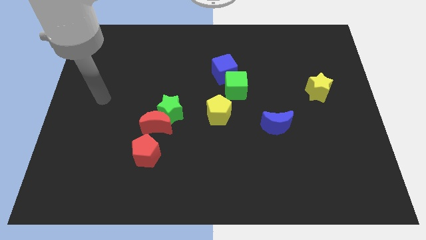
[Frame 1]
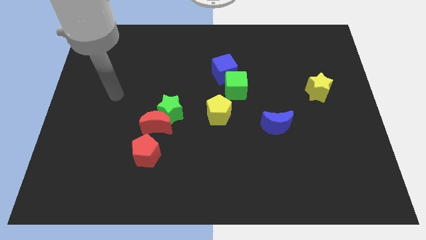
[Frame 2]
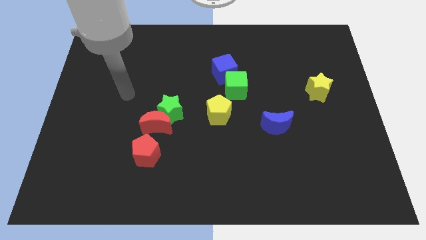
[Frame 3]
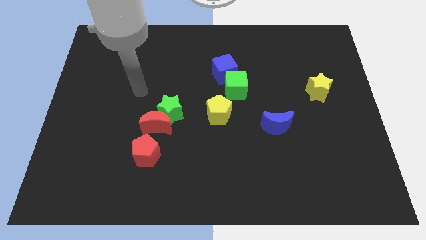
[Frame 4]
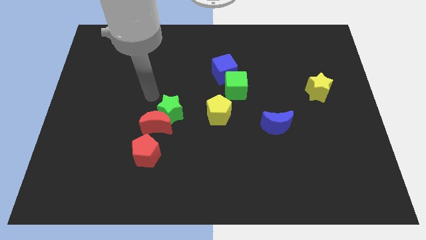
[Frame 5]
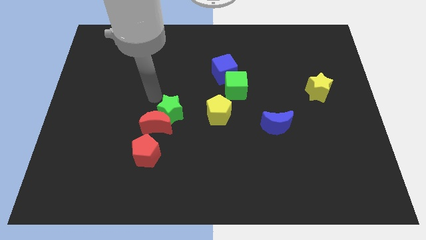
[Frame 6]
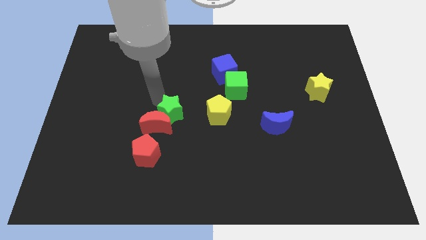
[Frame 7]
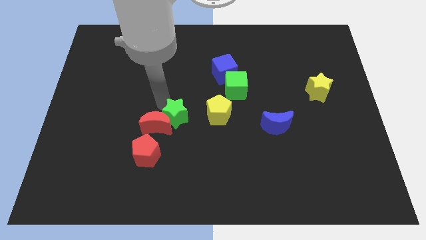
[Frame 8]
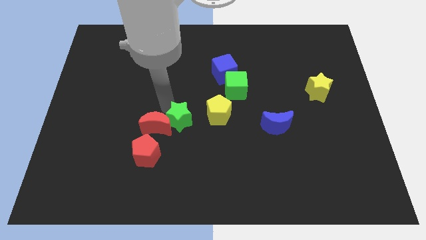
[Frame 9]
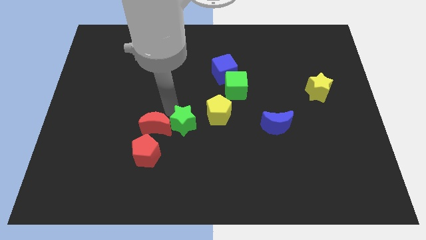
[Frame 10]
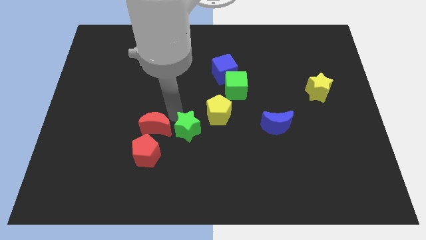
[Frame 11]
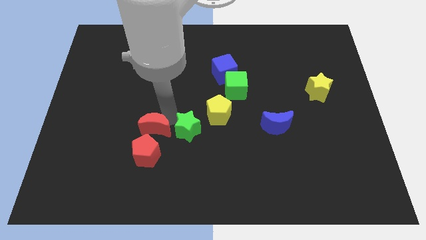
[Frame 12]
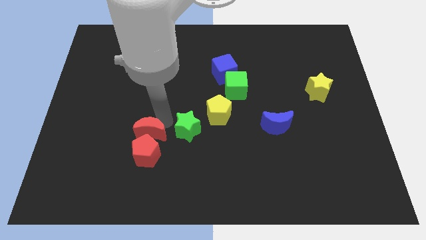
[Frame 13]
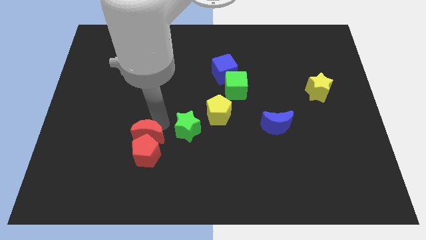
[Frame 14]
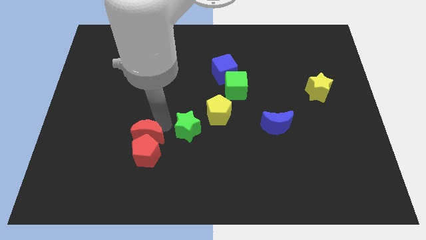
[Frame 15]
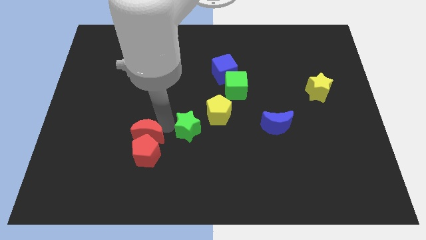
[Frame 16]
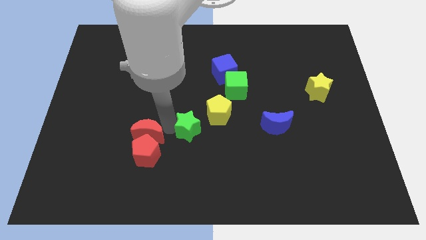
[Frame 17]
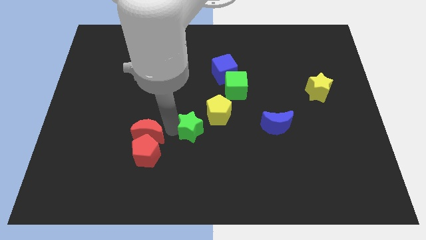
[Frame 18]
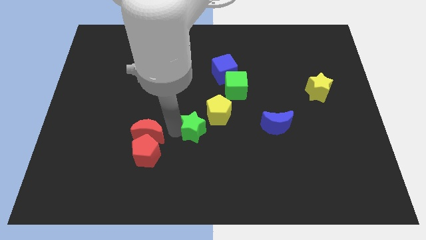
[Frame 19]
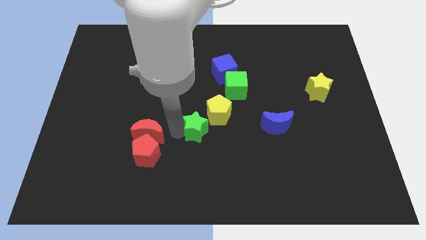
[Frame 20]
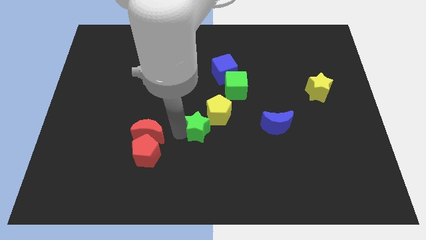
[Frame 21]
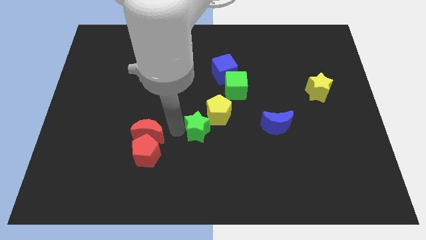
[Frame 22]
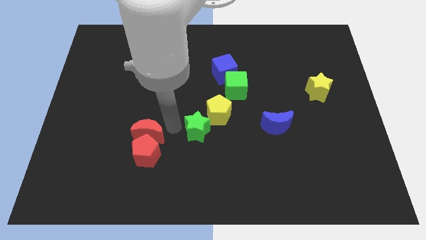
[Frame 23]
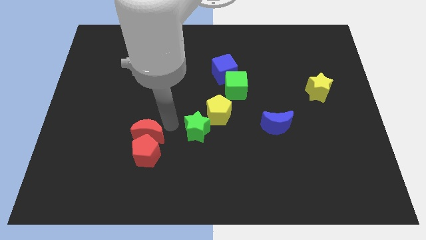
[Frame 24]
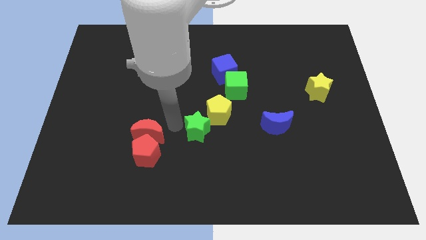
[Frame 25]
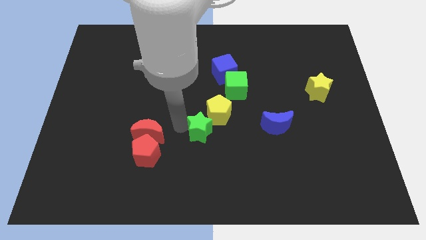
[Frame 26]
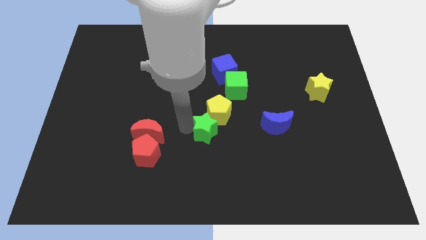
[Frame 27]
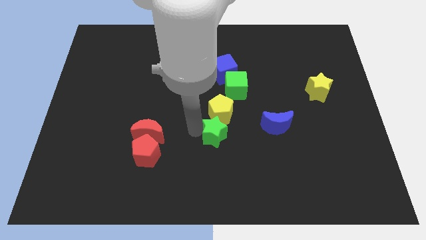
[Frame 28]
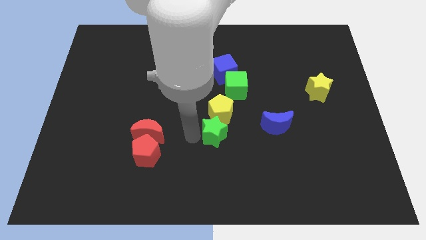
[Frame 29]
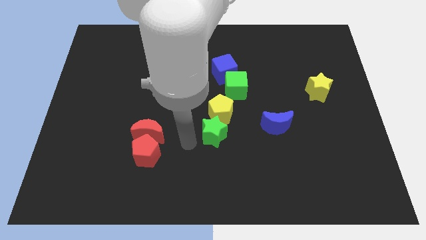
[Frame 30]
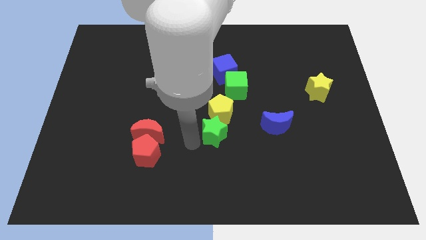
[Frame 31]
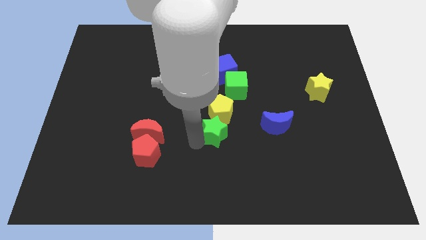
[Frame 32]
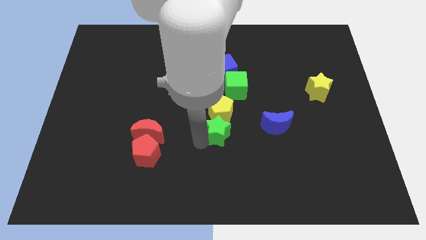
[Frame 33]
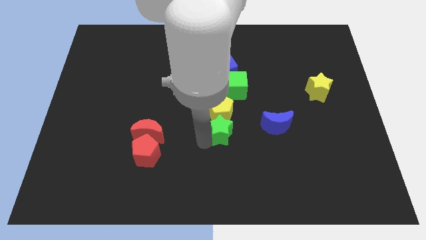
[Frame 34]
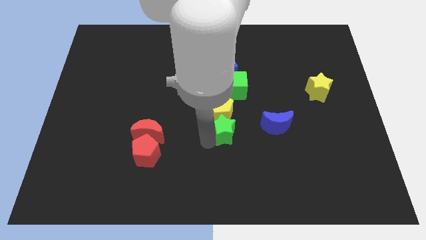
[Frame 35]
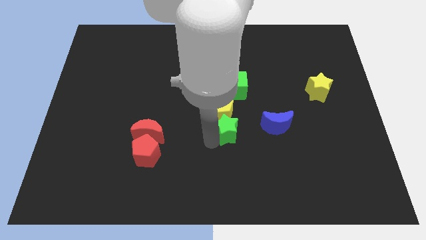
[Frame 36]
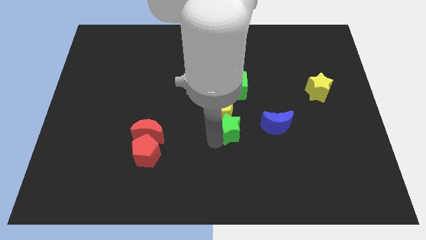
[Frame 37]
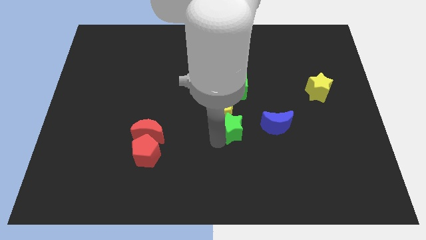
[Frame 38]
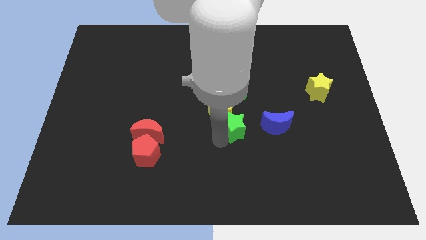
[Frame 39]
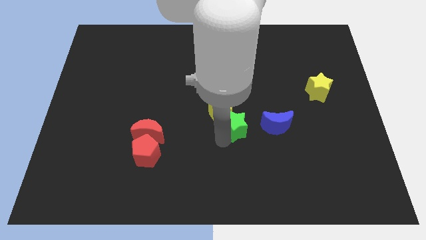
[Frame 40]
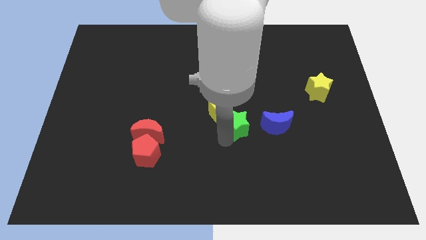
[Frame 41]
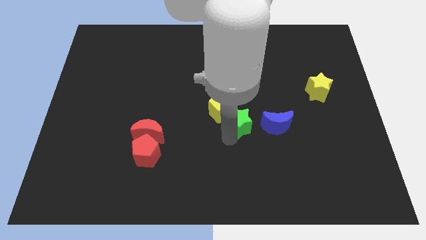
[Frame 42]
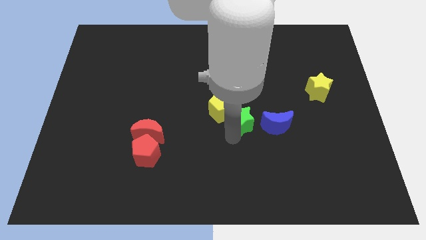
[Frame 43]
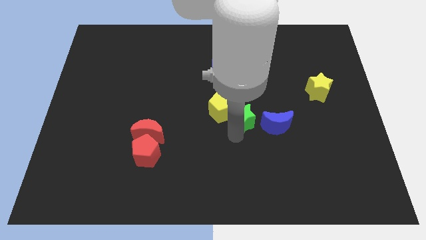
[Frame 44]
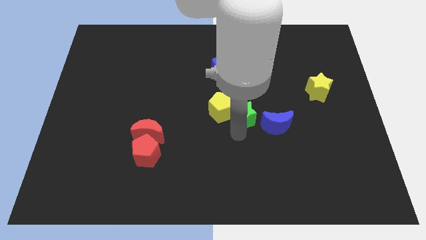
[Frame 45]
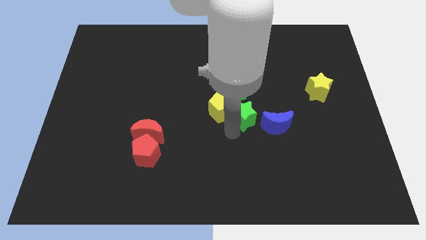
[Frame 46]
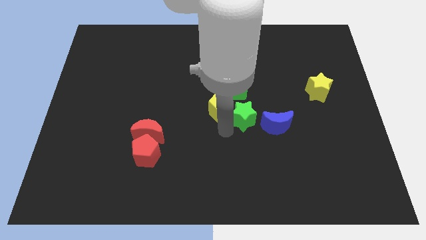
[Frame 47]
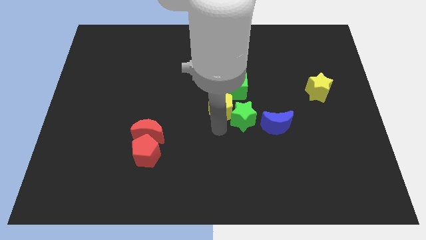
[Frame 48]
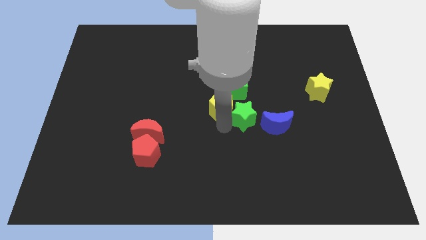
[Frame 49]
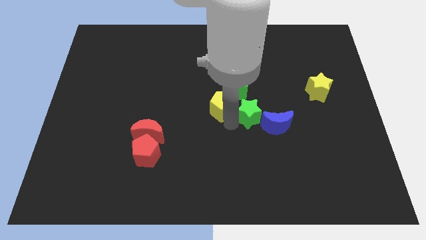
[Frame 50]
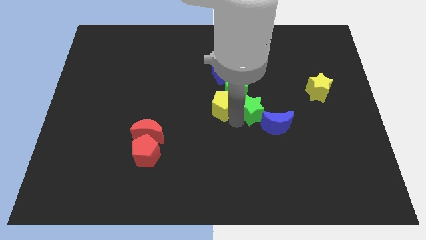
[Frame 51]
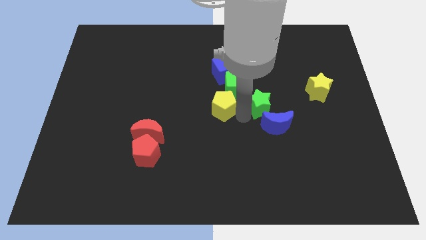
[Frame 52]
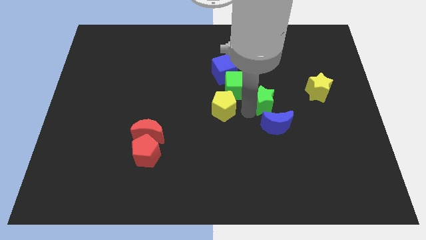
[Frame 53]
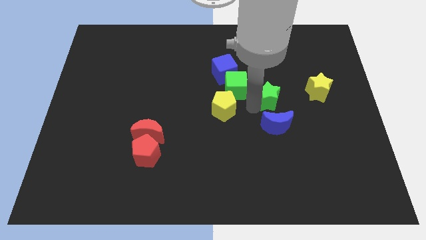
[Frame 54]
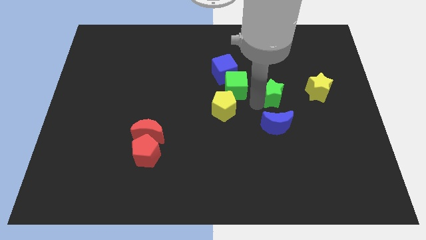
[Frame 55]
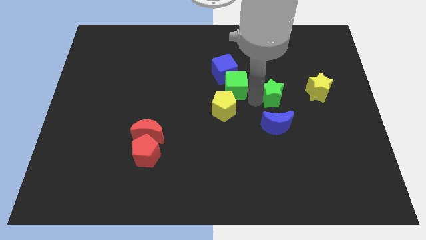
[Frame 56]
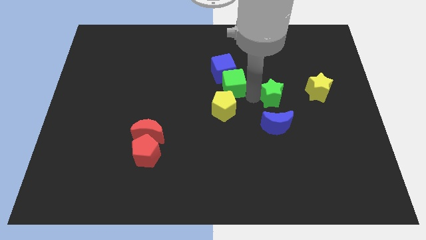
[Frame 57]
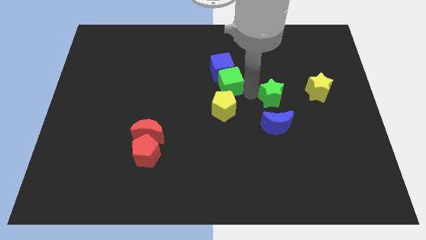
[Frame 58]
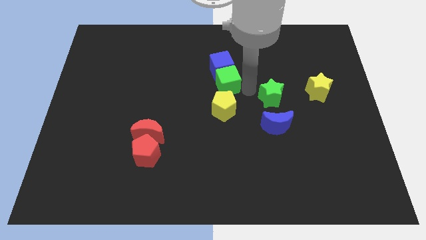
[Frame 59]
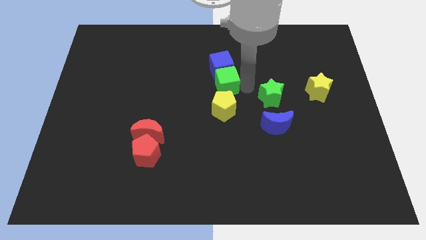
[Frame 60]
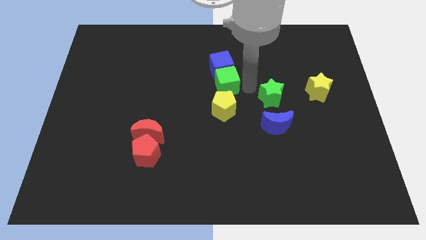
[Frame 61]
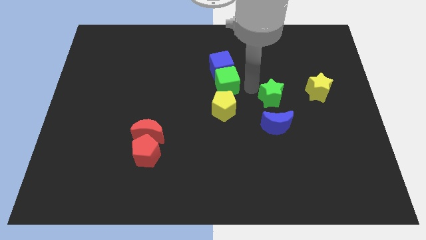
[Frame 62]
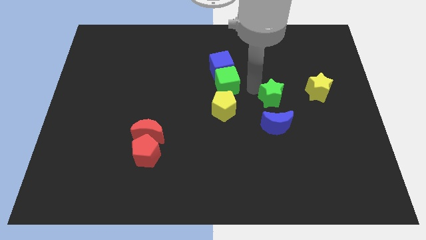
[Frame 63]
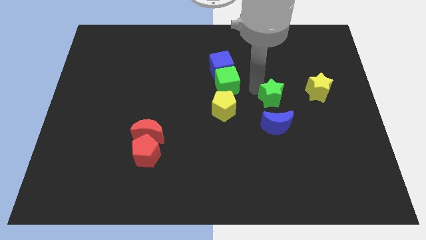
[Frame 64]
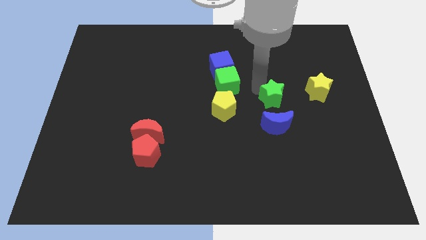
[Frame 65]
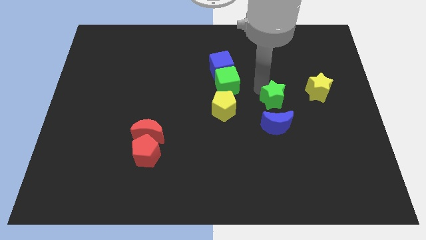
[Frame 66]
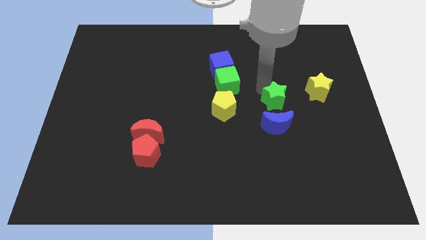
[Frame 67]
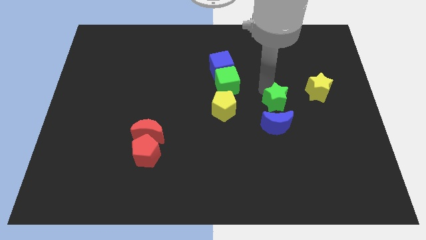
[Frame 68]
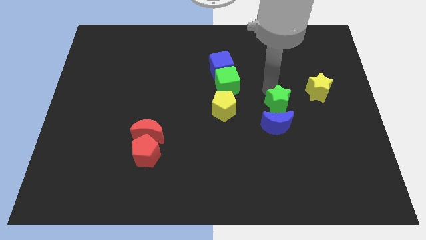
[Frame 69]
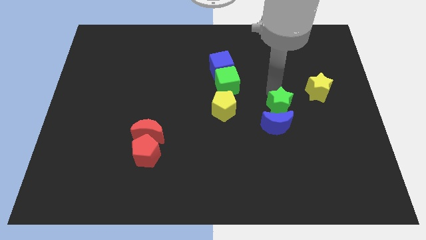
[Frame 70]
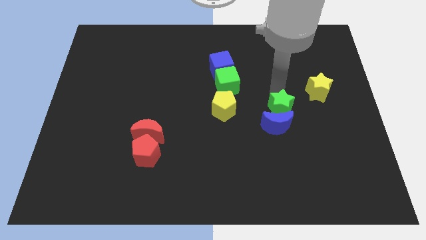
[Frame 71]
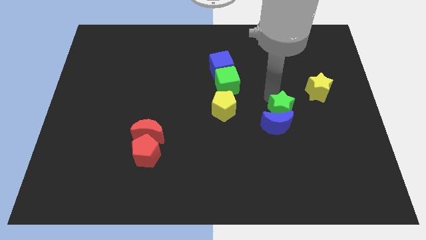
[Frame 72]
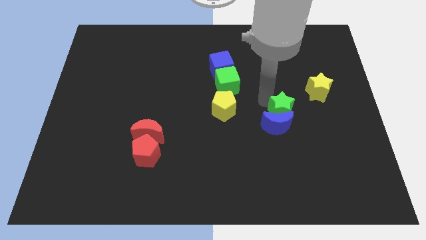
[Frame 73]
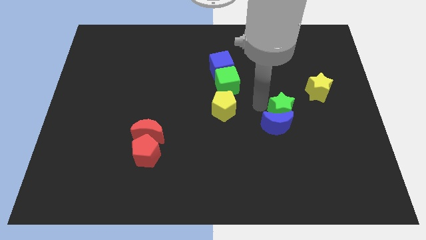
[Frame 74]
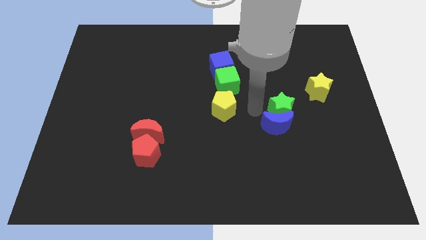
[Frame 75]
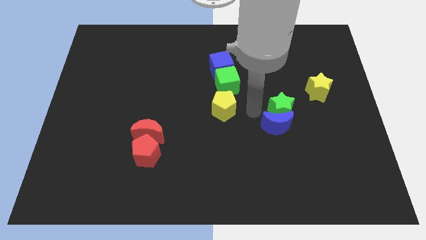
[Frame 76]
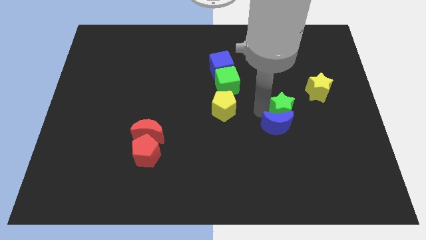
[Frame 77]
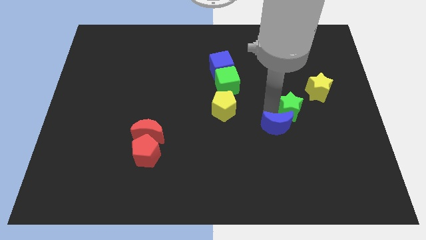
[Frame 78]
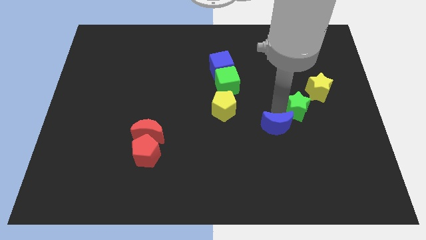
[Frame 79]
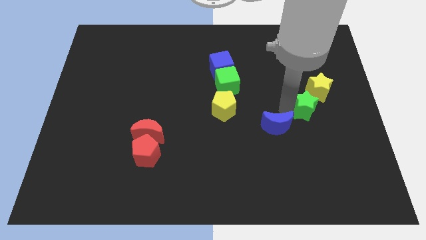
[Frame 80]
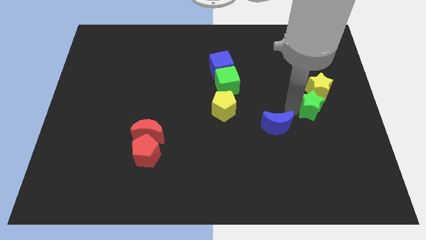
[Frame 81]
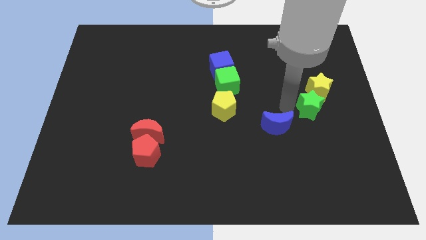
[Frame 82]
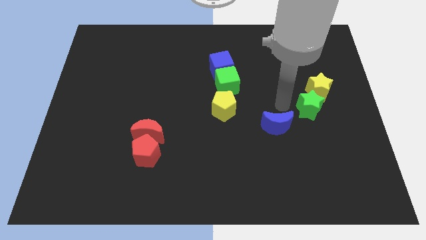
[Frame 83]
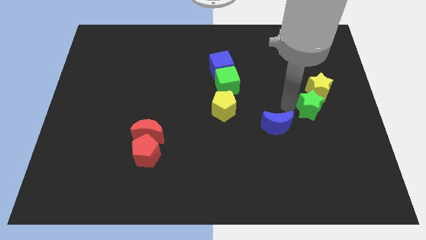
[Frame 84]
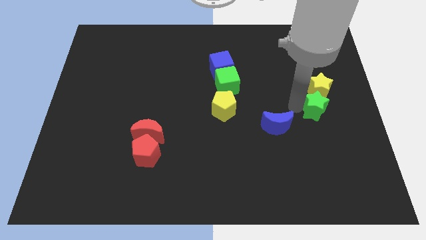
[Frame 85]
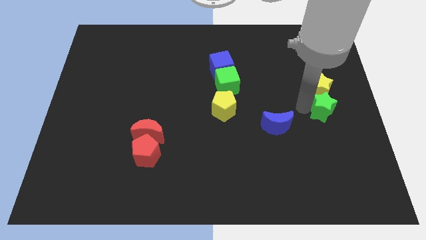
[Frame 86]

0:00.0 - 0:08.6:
slide the green star to the right side of the board
